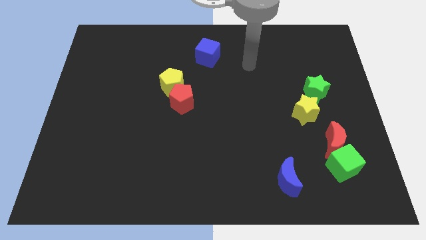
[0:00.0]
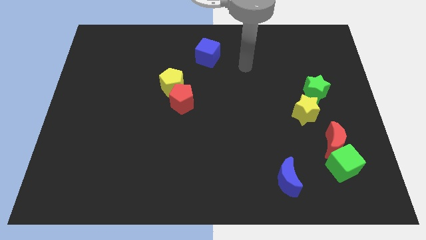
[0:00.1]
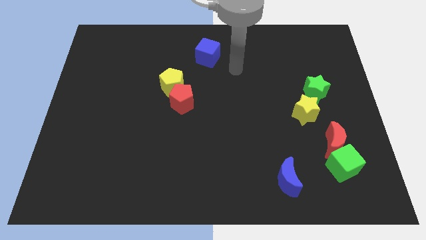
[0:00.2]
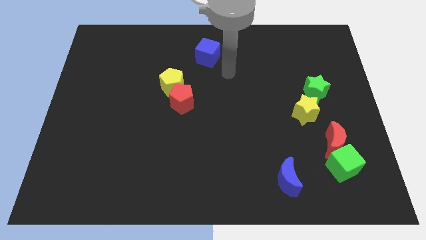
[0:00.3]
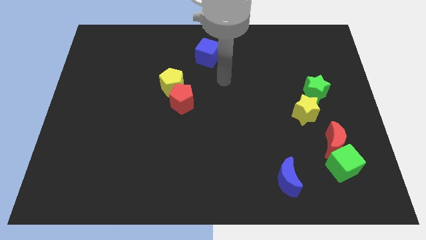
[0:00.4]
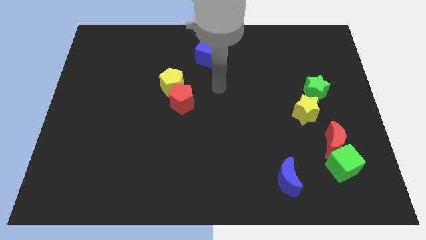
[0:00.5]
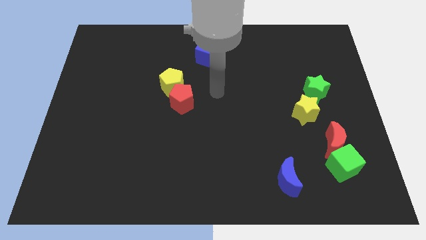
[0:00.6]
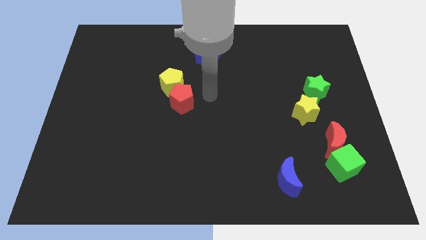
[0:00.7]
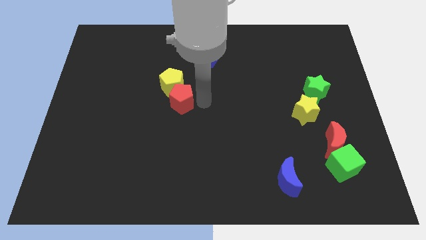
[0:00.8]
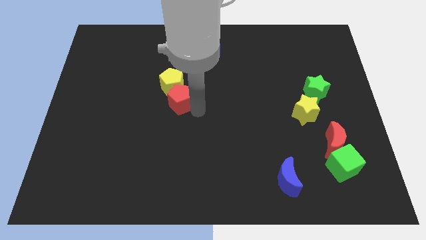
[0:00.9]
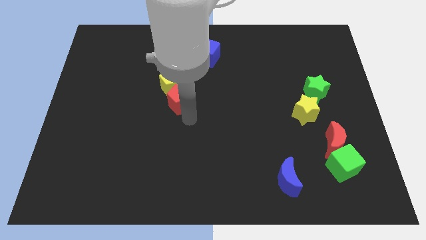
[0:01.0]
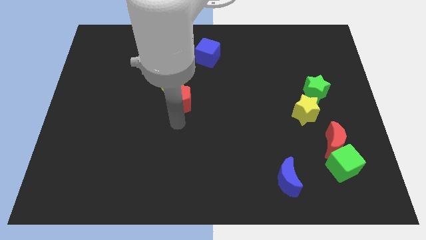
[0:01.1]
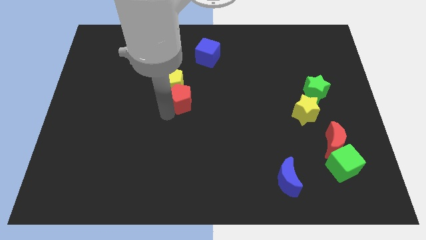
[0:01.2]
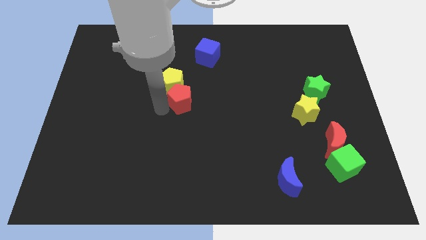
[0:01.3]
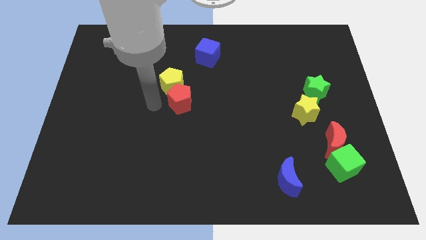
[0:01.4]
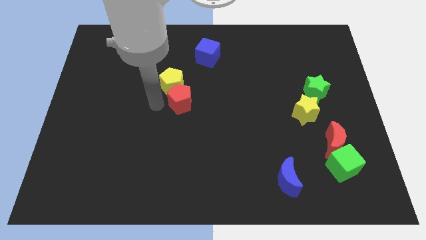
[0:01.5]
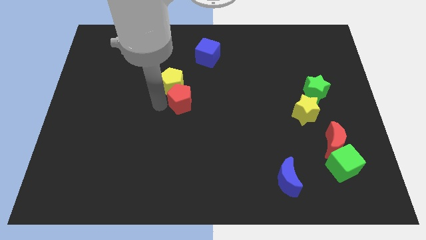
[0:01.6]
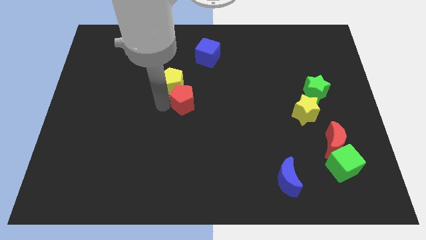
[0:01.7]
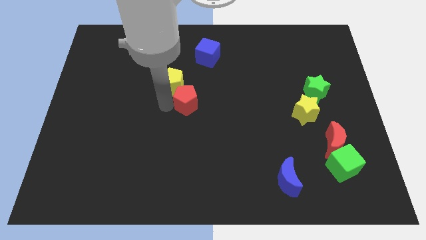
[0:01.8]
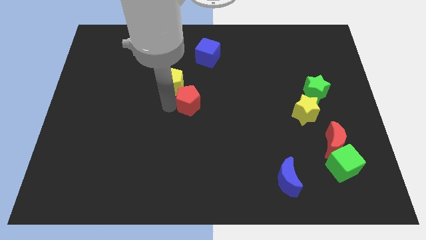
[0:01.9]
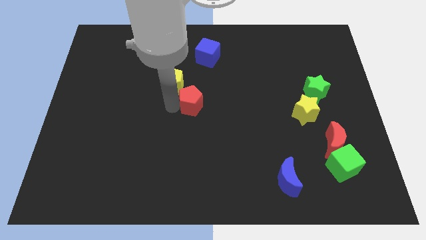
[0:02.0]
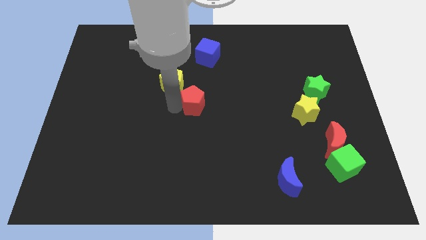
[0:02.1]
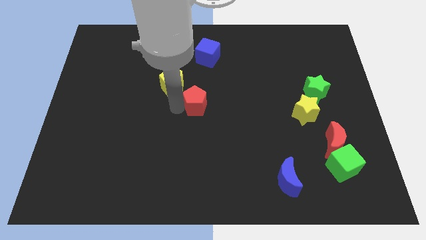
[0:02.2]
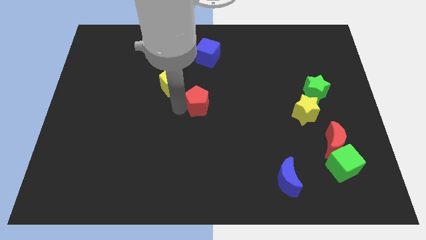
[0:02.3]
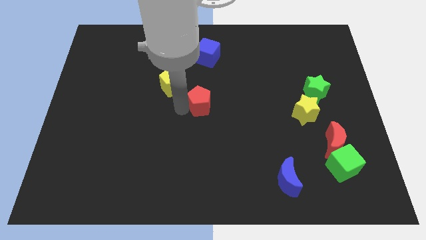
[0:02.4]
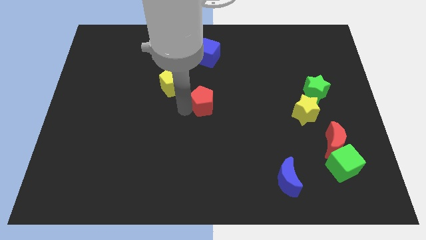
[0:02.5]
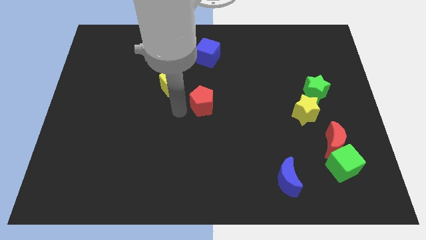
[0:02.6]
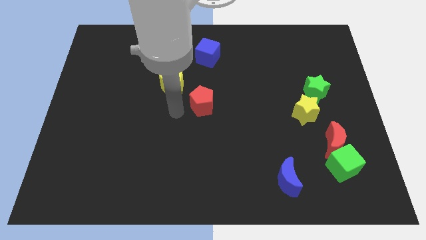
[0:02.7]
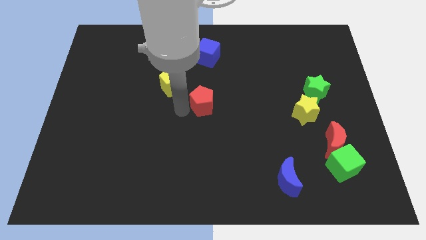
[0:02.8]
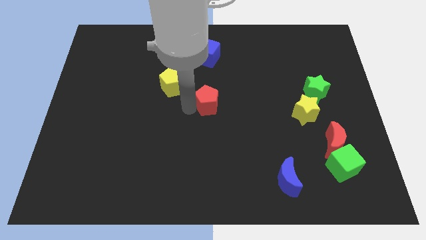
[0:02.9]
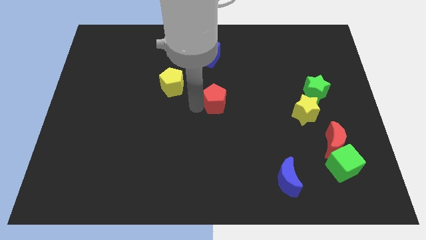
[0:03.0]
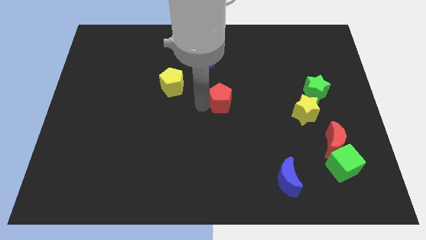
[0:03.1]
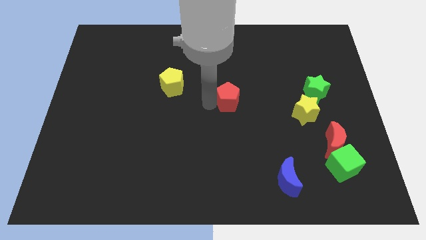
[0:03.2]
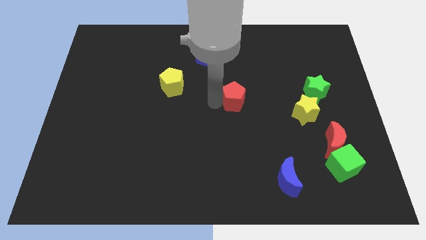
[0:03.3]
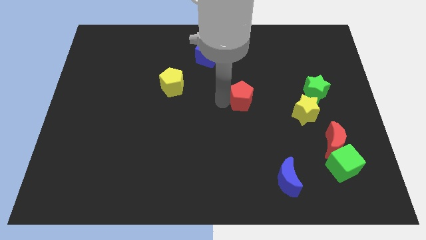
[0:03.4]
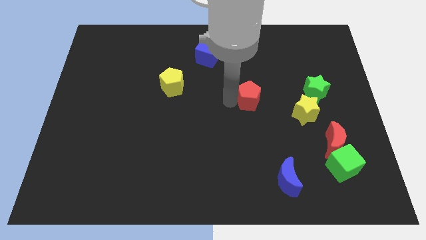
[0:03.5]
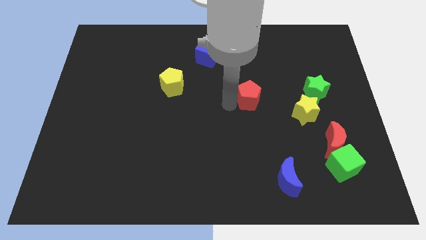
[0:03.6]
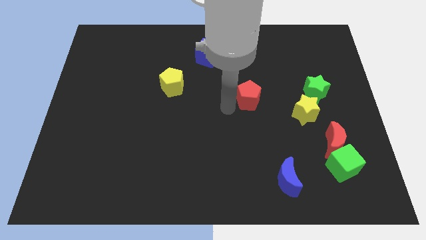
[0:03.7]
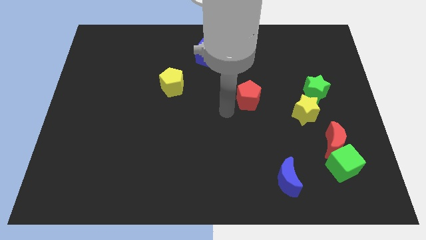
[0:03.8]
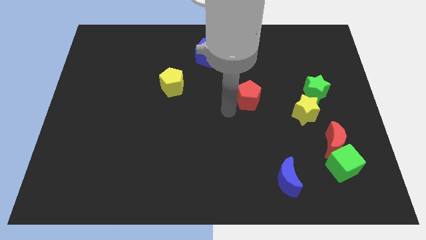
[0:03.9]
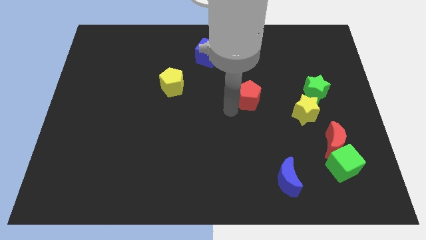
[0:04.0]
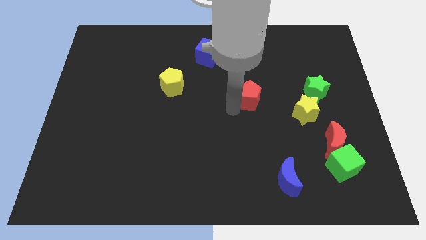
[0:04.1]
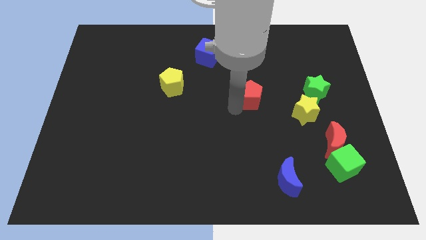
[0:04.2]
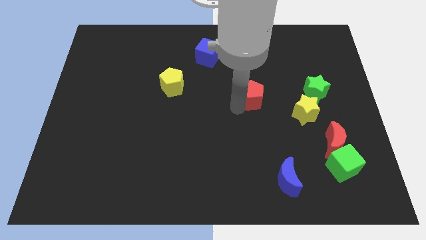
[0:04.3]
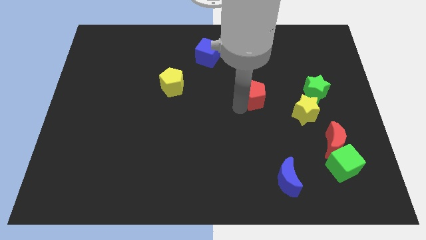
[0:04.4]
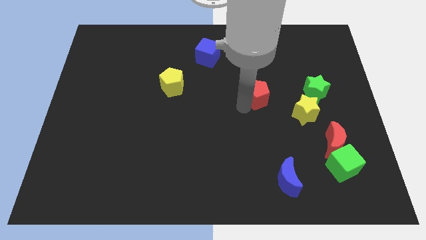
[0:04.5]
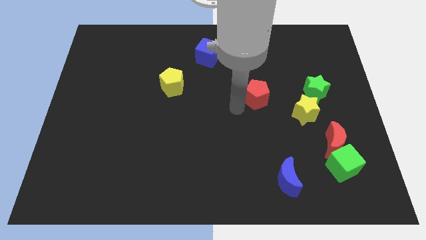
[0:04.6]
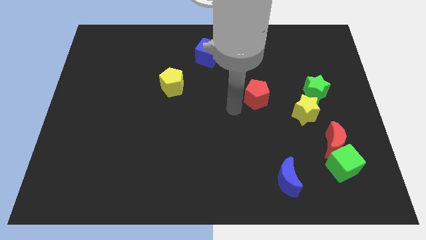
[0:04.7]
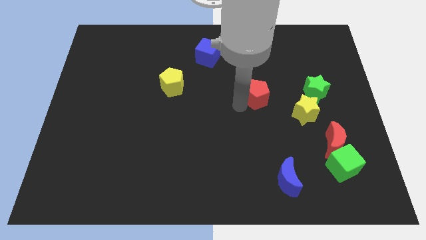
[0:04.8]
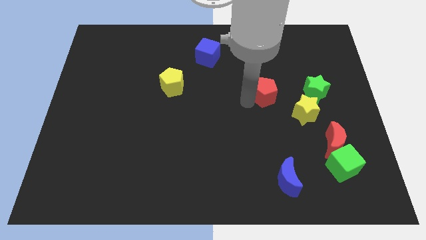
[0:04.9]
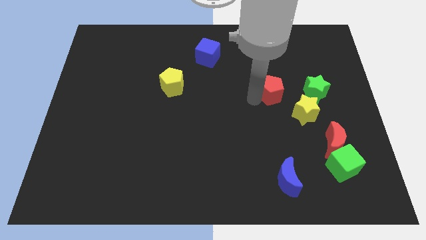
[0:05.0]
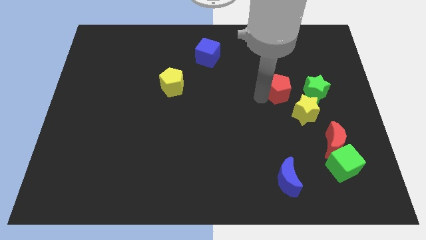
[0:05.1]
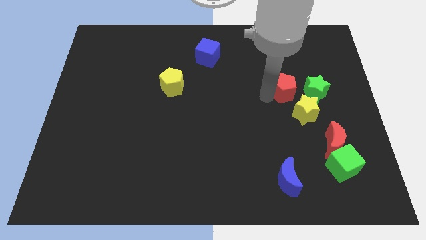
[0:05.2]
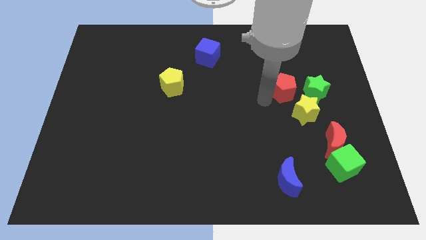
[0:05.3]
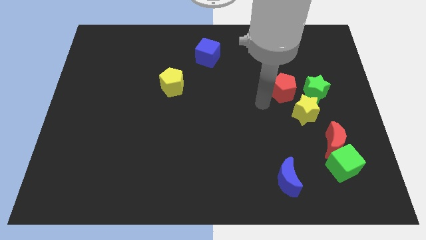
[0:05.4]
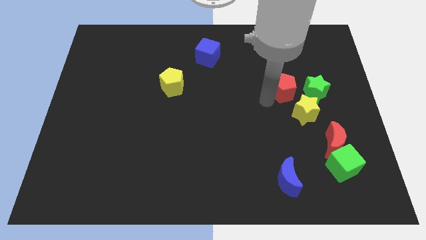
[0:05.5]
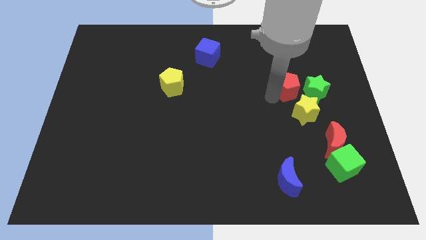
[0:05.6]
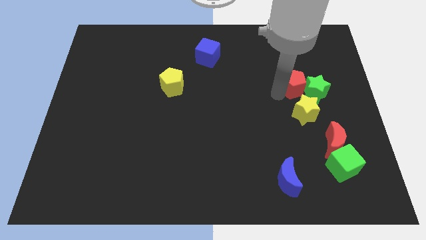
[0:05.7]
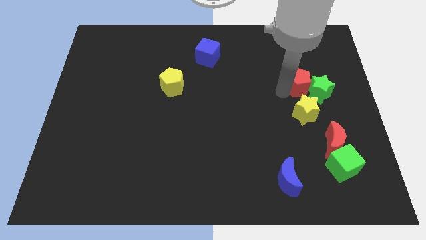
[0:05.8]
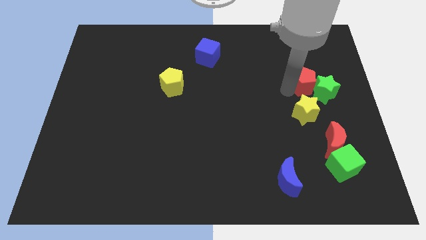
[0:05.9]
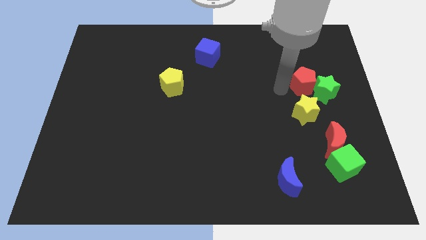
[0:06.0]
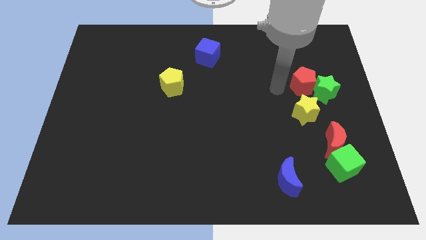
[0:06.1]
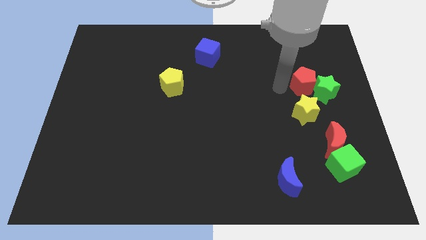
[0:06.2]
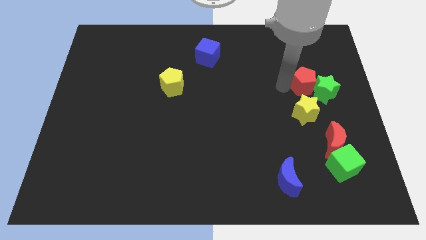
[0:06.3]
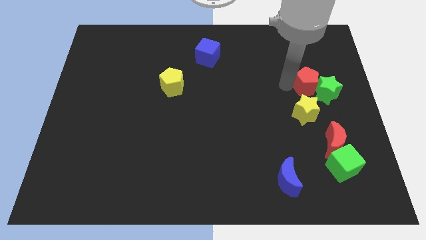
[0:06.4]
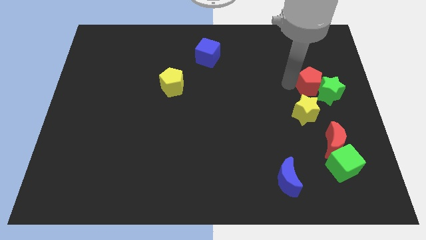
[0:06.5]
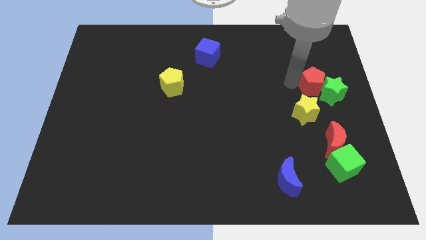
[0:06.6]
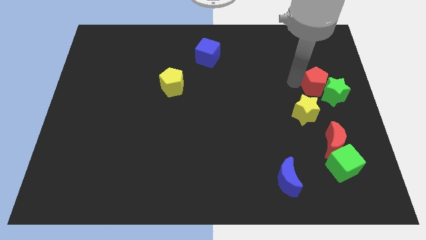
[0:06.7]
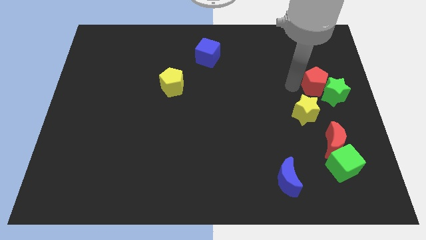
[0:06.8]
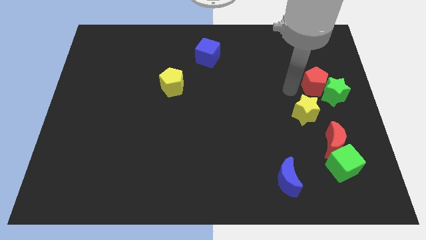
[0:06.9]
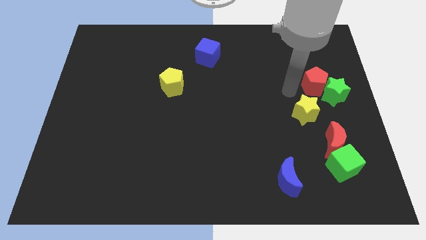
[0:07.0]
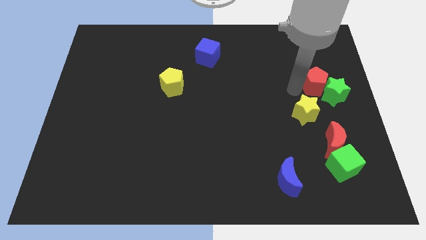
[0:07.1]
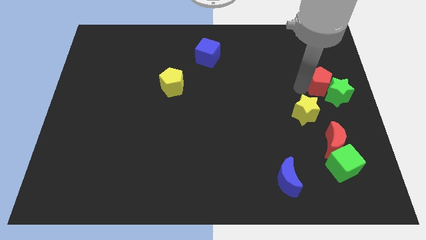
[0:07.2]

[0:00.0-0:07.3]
slide the red pentagon to the right side of the board
